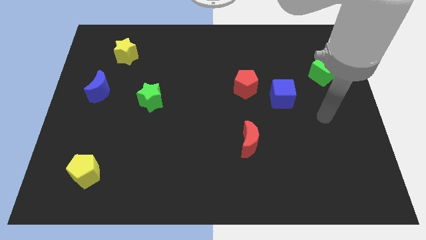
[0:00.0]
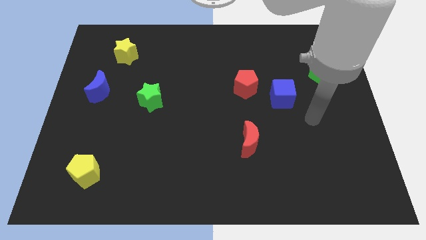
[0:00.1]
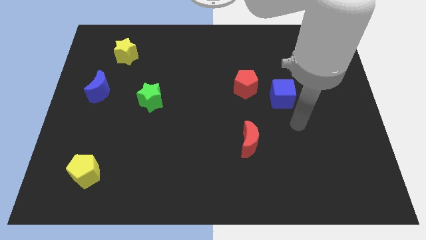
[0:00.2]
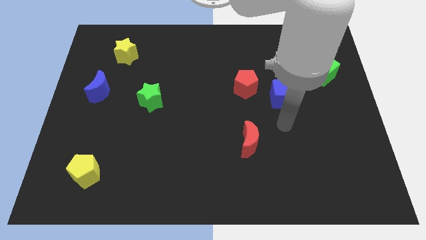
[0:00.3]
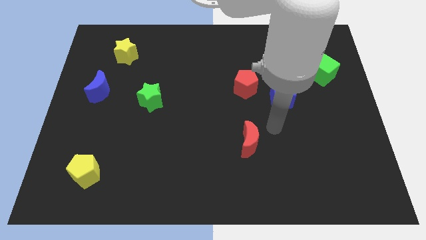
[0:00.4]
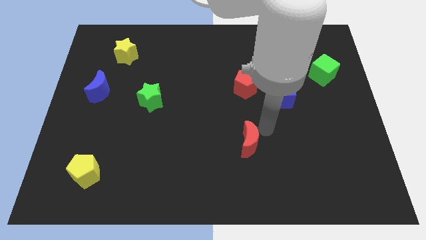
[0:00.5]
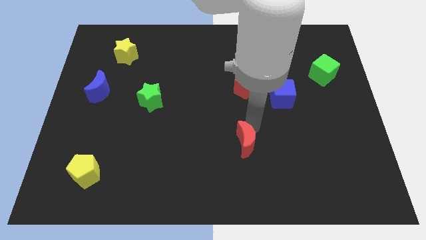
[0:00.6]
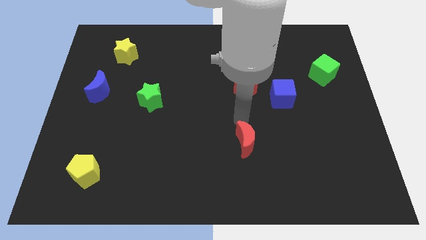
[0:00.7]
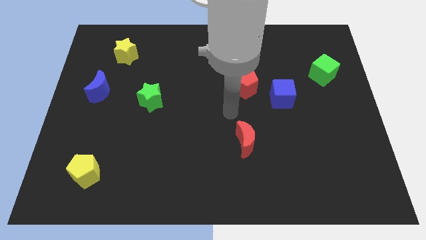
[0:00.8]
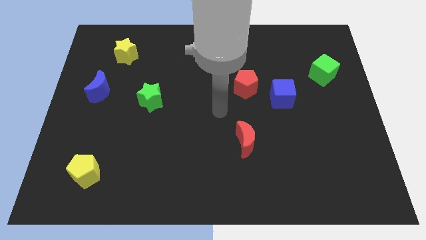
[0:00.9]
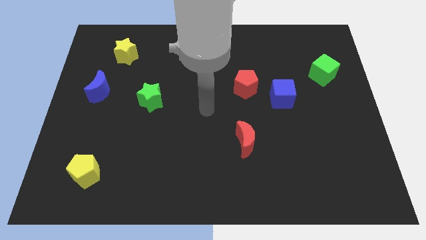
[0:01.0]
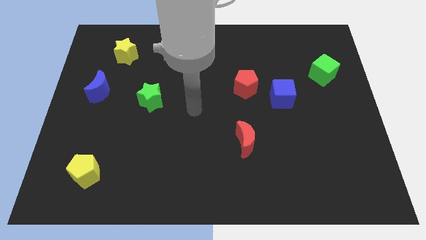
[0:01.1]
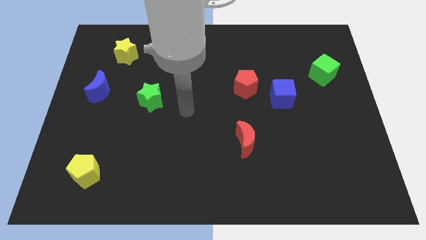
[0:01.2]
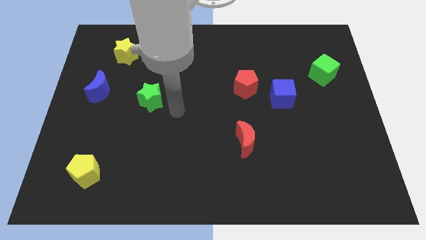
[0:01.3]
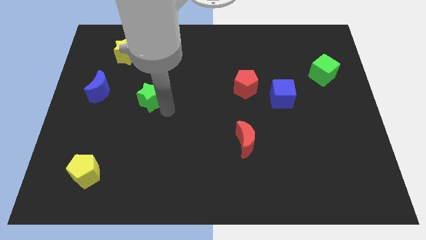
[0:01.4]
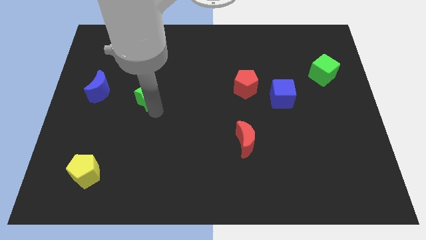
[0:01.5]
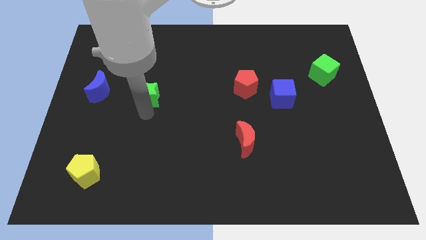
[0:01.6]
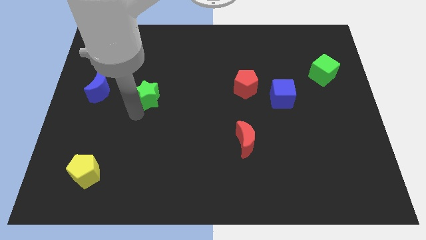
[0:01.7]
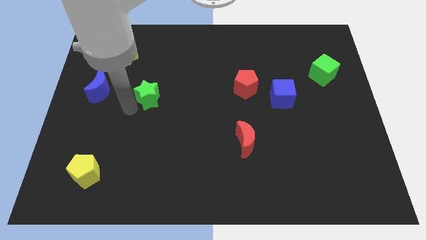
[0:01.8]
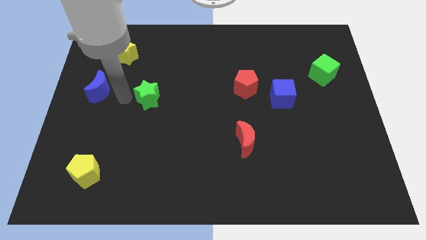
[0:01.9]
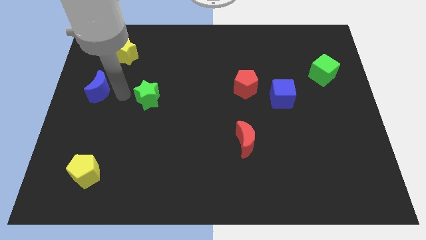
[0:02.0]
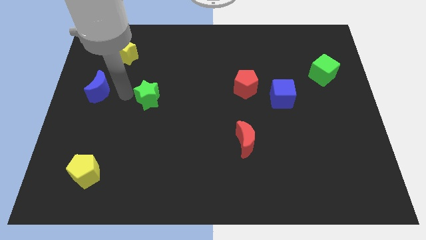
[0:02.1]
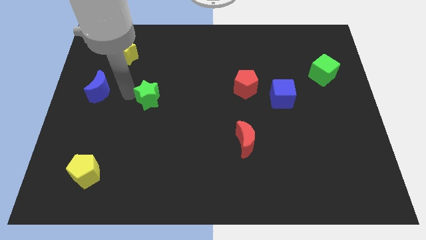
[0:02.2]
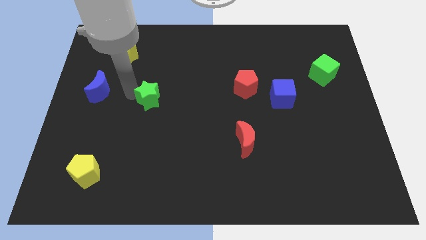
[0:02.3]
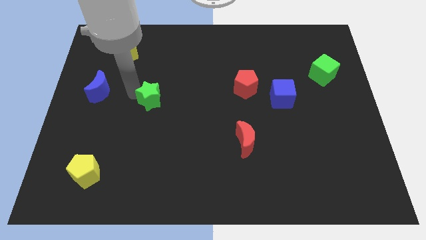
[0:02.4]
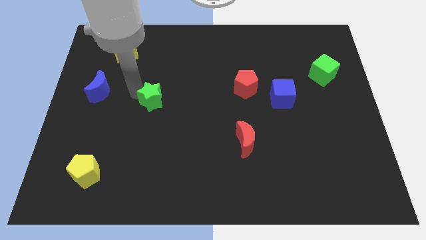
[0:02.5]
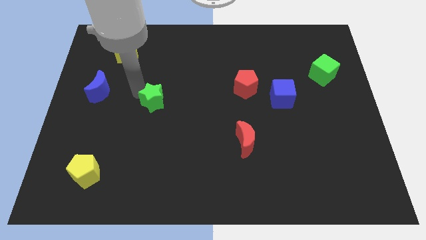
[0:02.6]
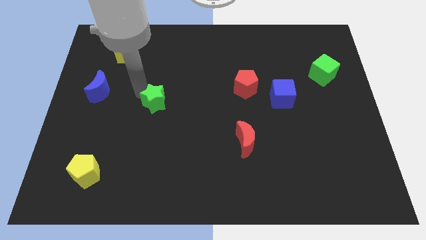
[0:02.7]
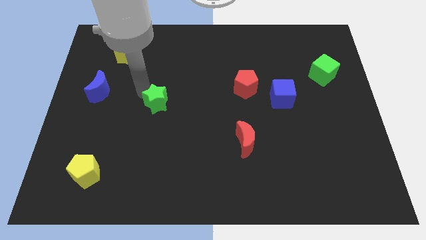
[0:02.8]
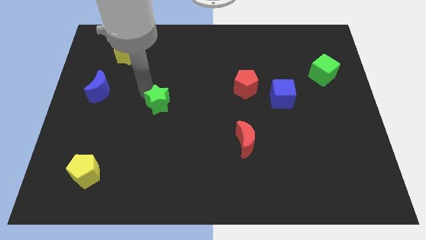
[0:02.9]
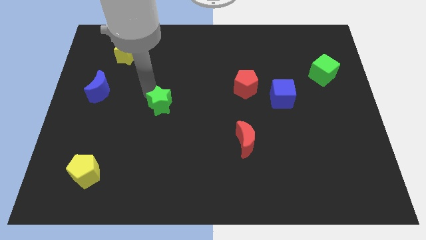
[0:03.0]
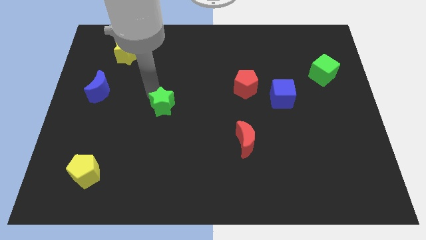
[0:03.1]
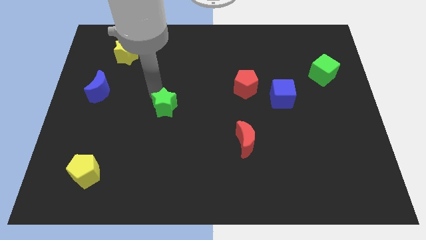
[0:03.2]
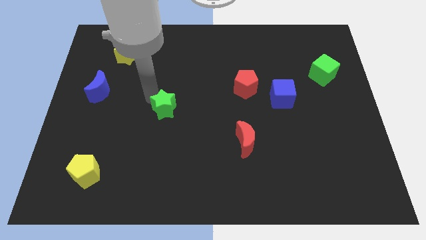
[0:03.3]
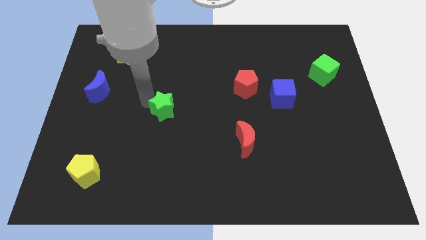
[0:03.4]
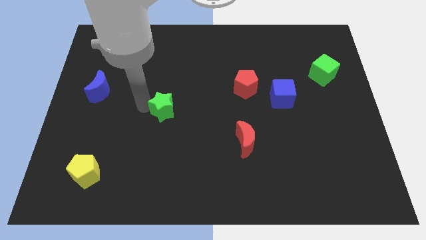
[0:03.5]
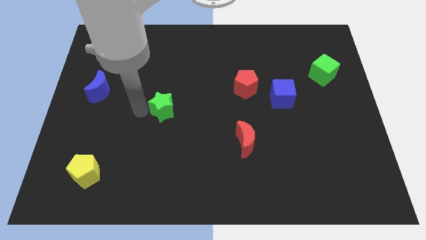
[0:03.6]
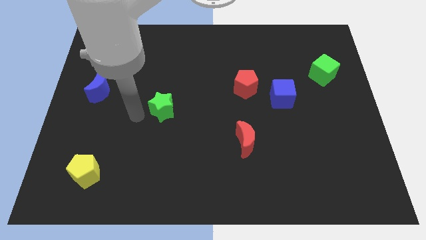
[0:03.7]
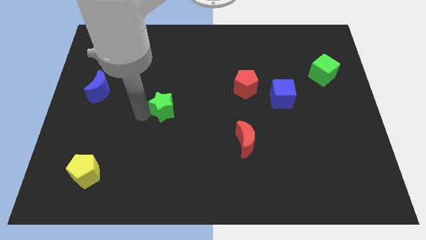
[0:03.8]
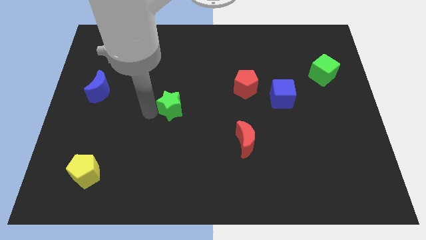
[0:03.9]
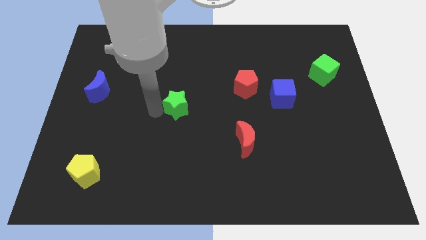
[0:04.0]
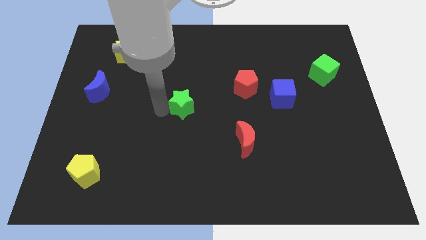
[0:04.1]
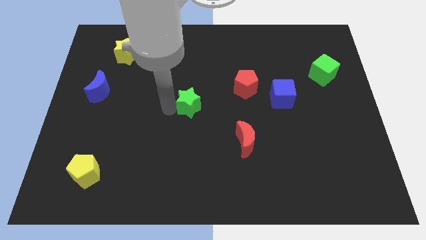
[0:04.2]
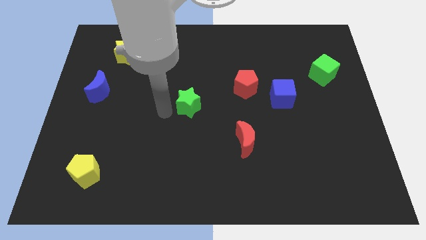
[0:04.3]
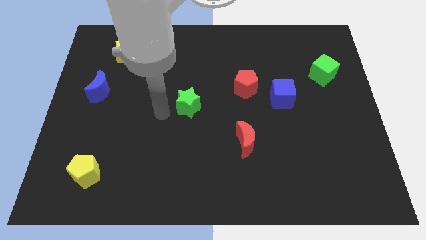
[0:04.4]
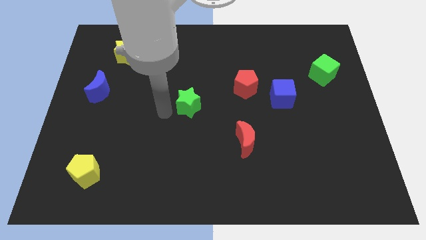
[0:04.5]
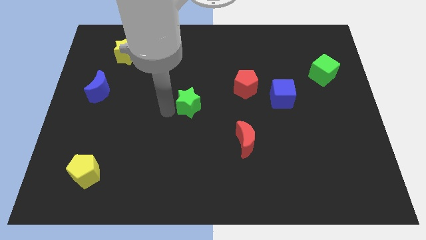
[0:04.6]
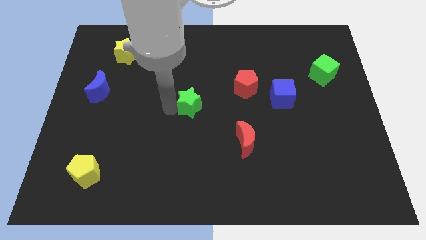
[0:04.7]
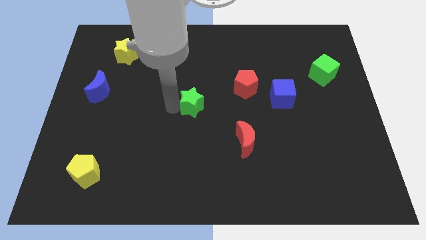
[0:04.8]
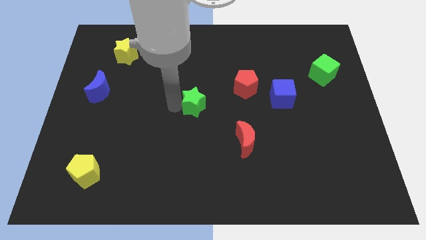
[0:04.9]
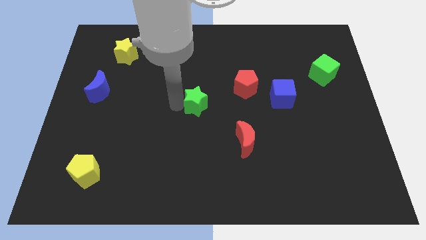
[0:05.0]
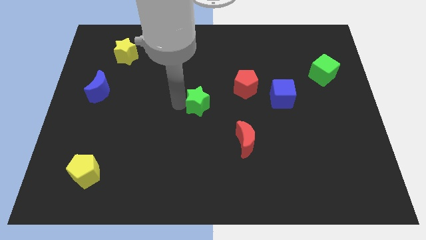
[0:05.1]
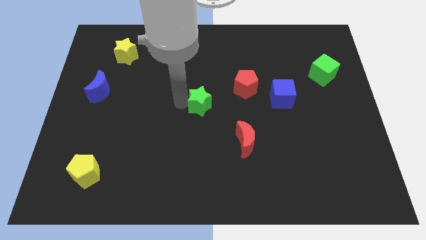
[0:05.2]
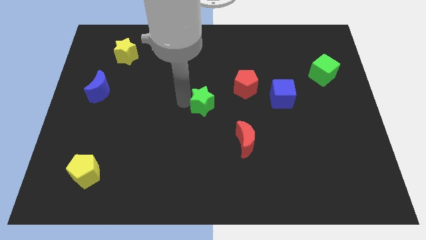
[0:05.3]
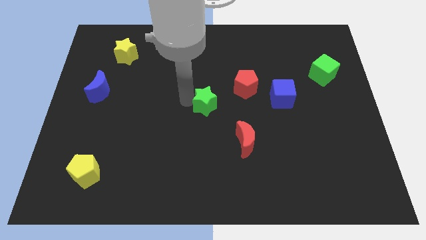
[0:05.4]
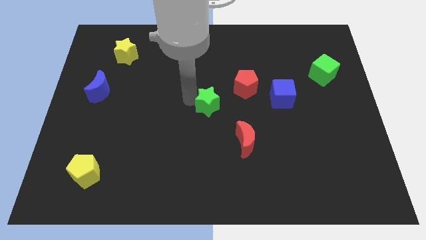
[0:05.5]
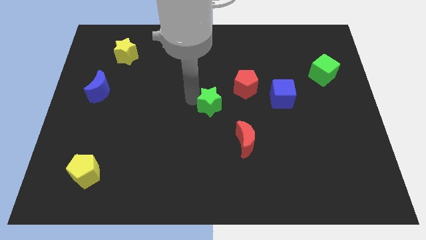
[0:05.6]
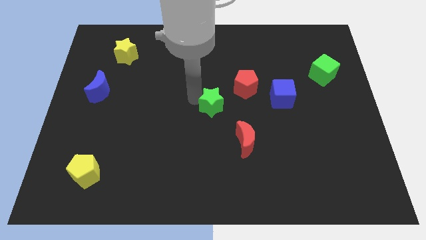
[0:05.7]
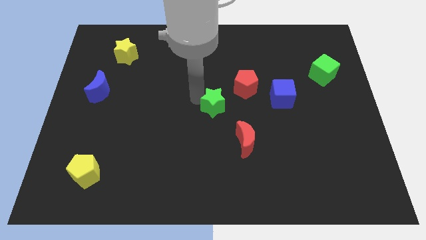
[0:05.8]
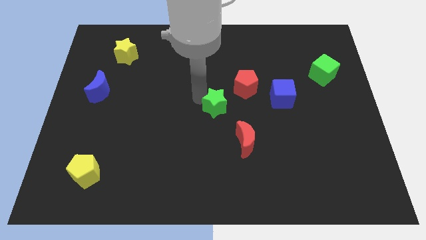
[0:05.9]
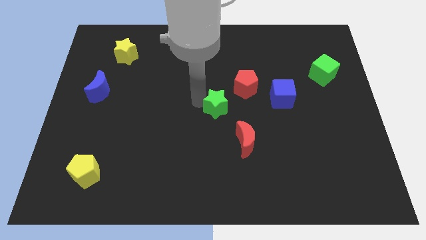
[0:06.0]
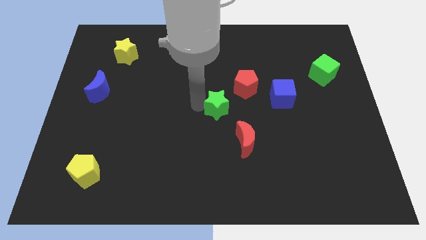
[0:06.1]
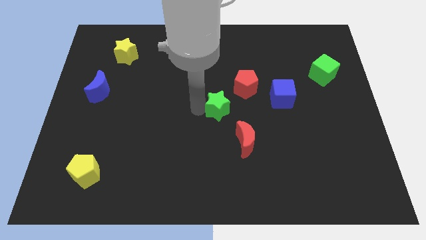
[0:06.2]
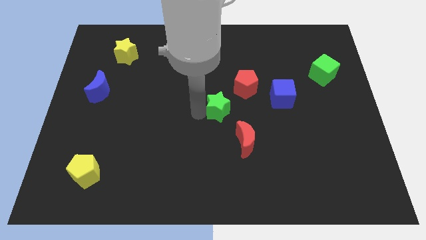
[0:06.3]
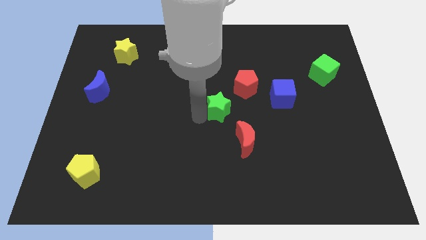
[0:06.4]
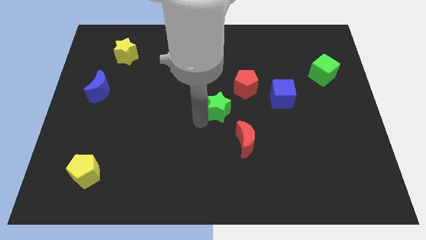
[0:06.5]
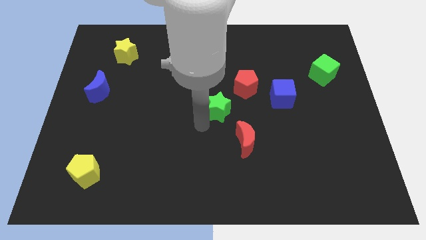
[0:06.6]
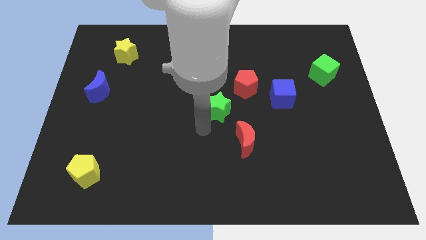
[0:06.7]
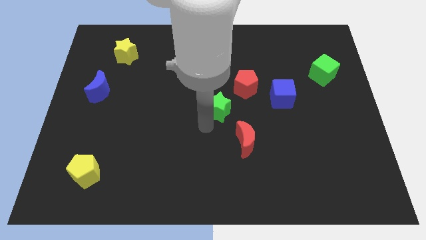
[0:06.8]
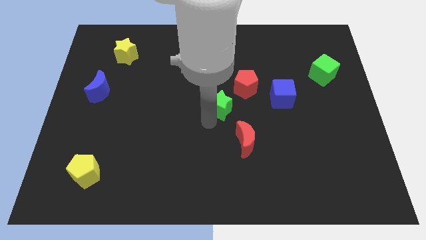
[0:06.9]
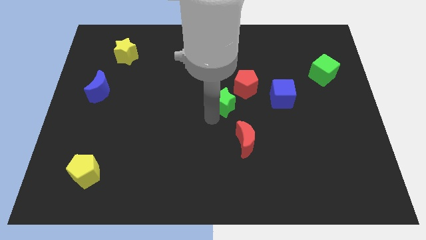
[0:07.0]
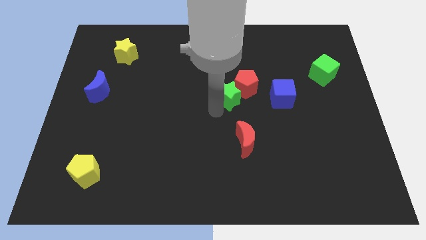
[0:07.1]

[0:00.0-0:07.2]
put the green star next to the red pentagon

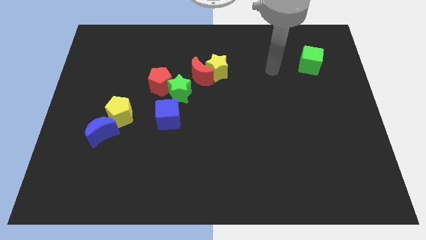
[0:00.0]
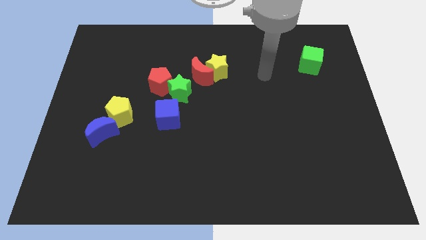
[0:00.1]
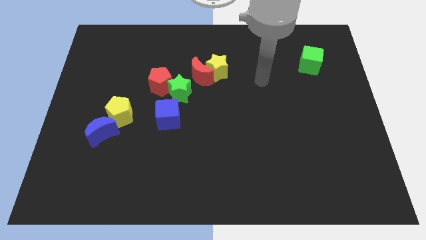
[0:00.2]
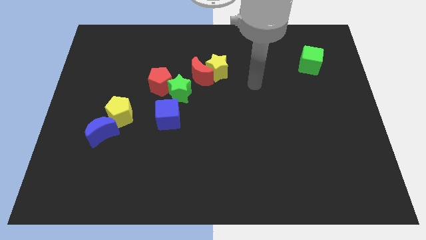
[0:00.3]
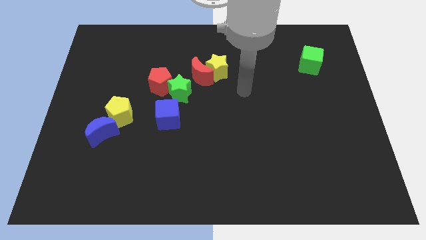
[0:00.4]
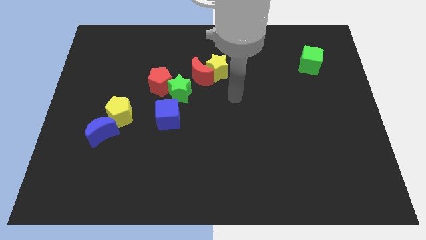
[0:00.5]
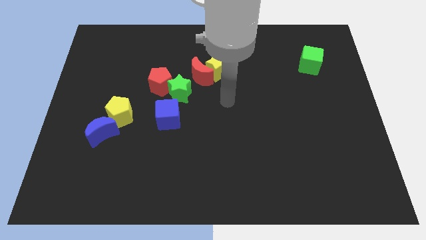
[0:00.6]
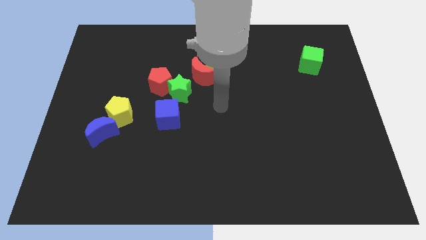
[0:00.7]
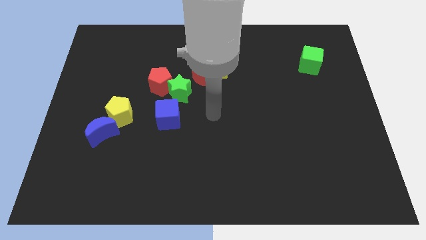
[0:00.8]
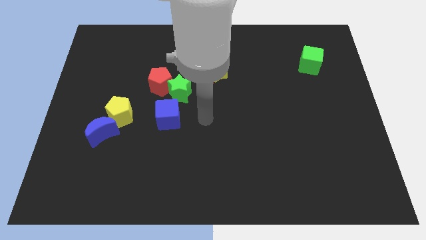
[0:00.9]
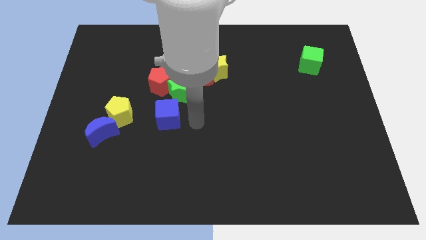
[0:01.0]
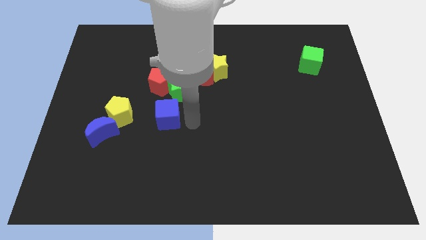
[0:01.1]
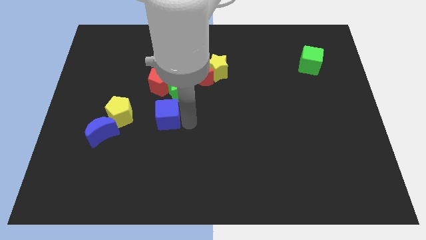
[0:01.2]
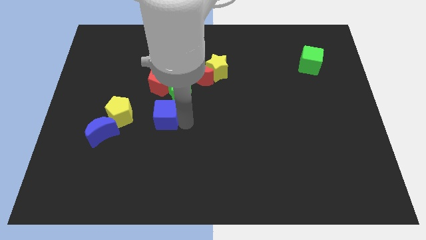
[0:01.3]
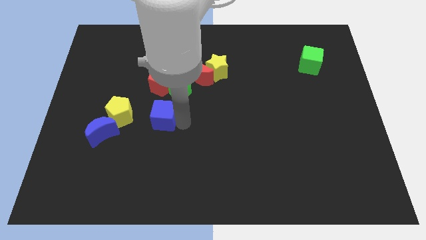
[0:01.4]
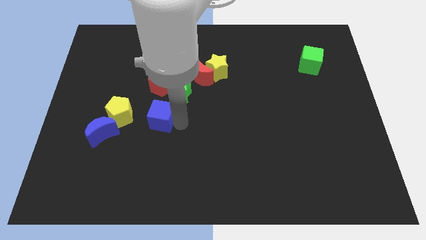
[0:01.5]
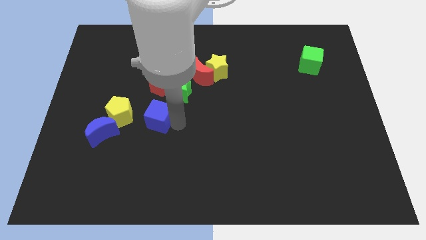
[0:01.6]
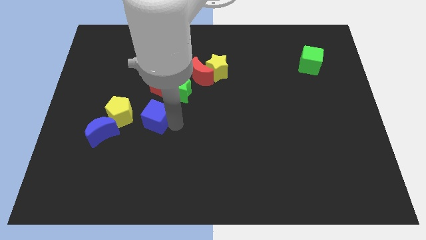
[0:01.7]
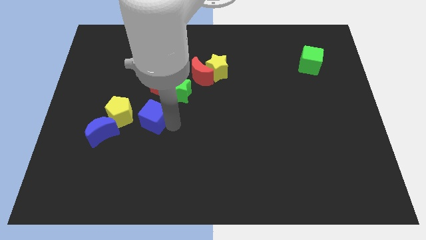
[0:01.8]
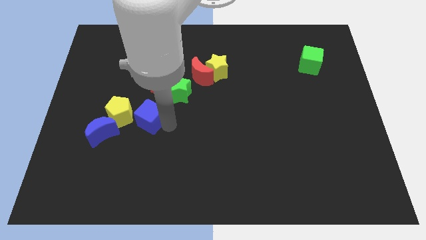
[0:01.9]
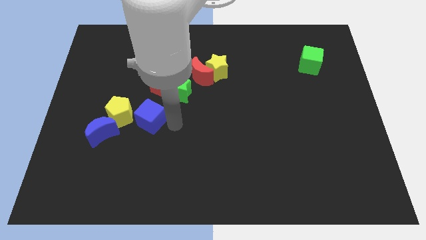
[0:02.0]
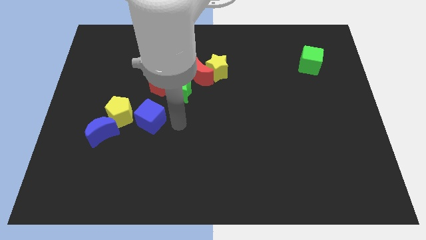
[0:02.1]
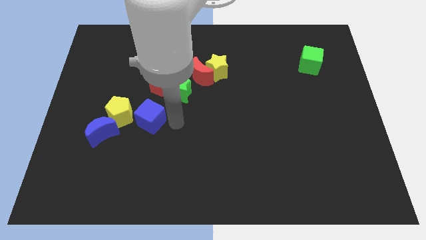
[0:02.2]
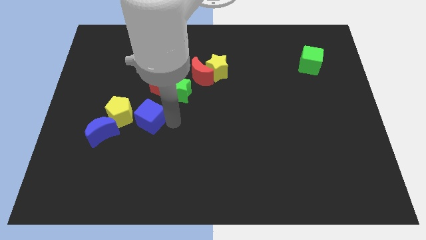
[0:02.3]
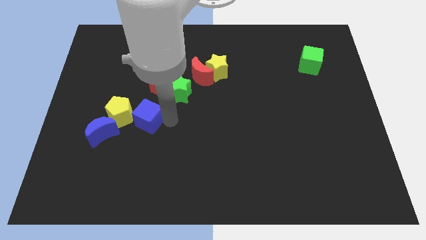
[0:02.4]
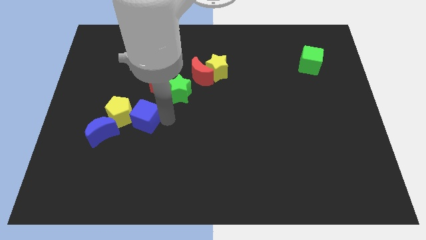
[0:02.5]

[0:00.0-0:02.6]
slide the blue cube towards the yellow pentagon
